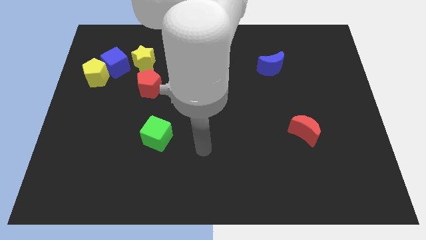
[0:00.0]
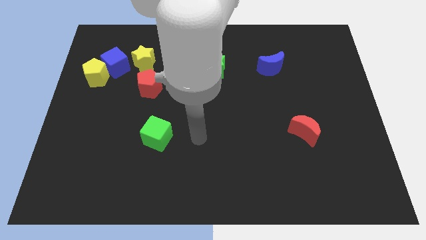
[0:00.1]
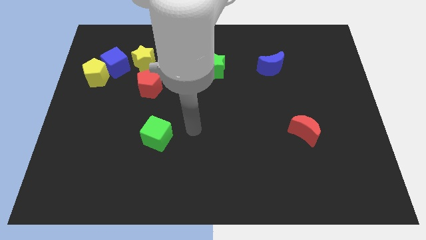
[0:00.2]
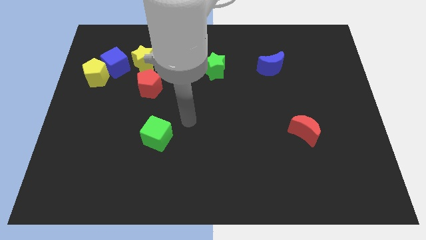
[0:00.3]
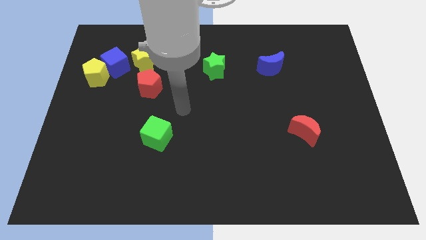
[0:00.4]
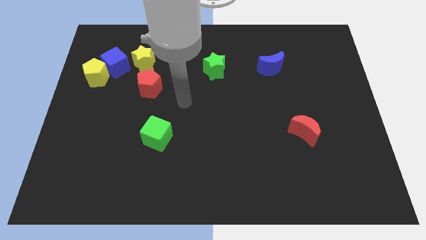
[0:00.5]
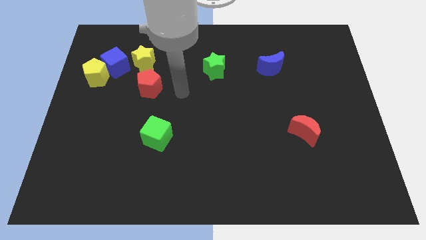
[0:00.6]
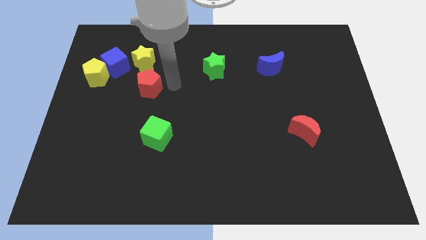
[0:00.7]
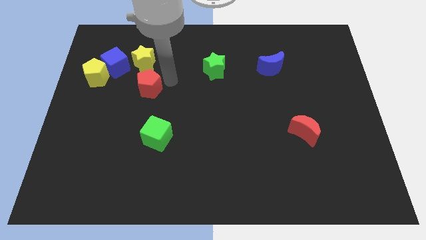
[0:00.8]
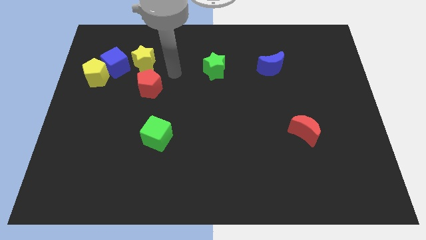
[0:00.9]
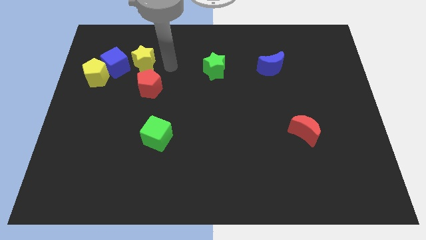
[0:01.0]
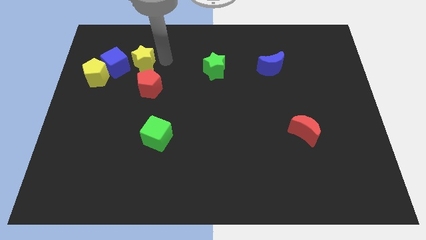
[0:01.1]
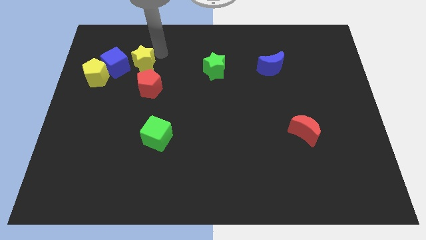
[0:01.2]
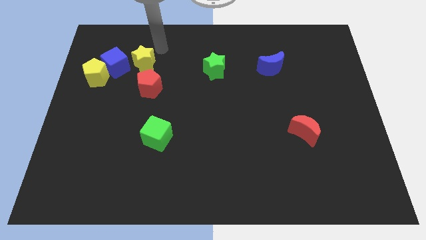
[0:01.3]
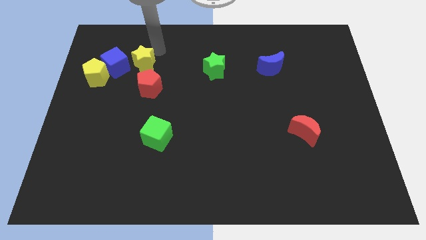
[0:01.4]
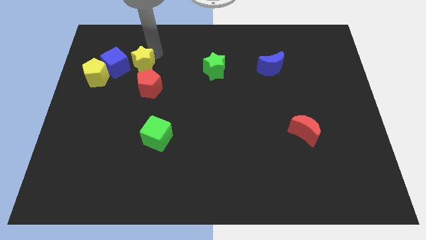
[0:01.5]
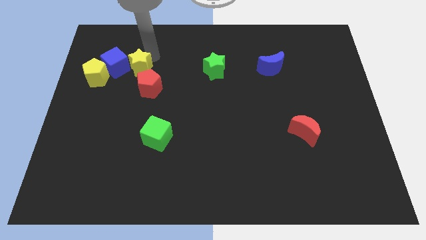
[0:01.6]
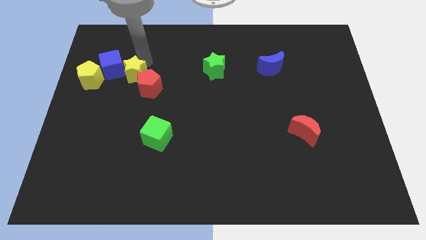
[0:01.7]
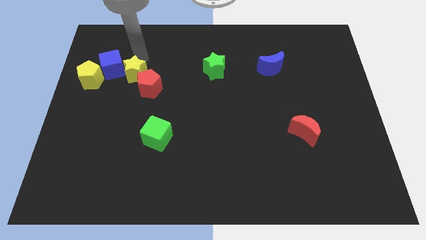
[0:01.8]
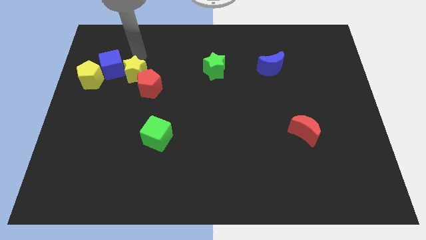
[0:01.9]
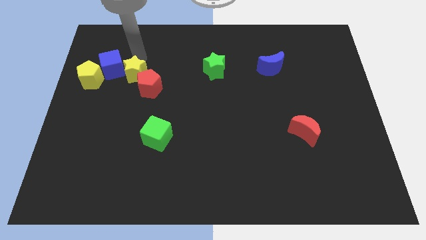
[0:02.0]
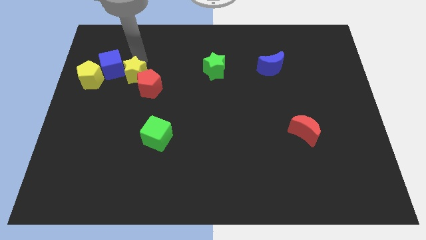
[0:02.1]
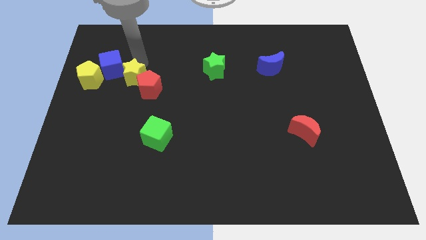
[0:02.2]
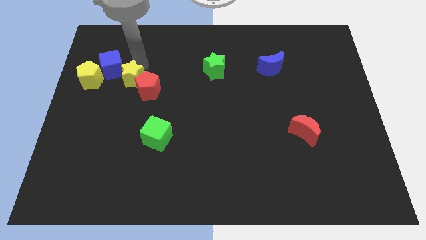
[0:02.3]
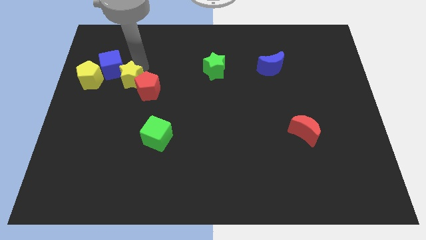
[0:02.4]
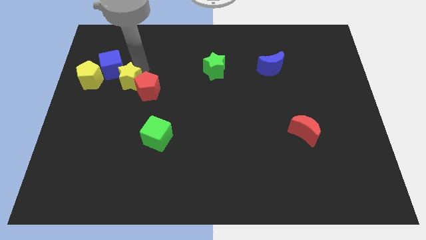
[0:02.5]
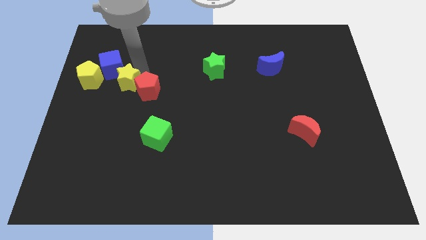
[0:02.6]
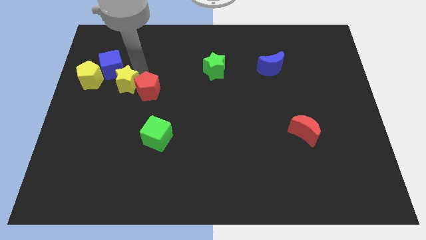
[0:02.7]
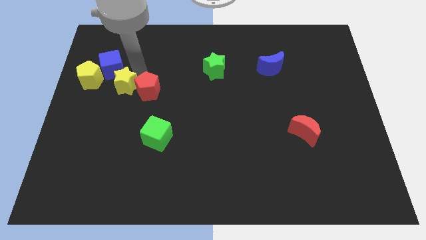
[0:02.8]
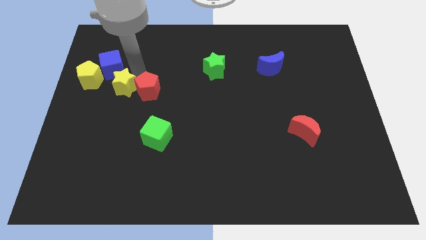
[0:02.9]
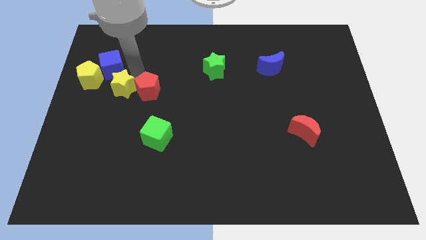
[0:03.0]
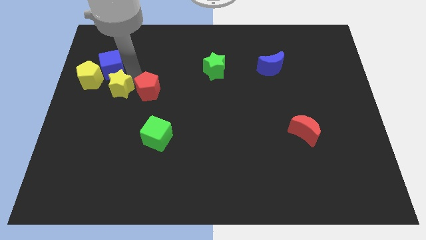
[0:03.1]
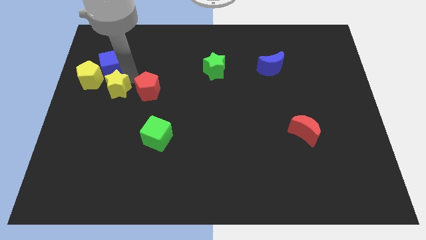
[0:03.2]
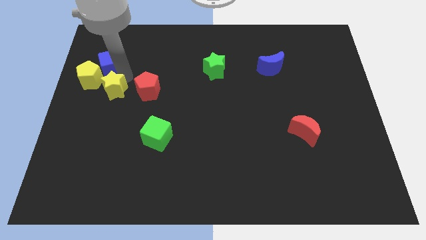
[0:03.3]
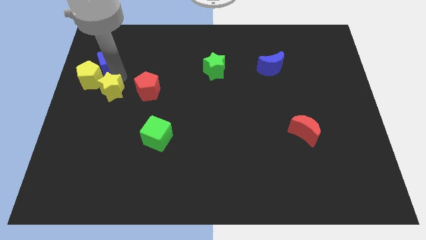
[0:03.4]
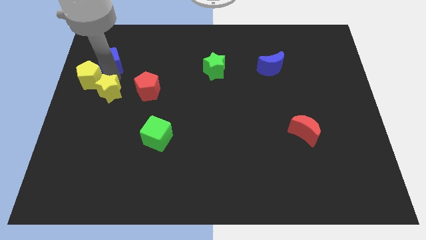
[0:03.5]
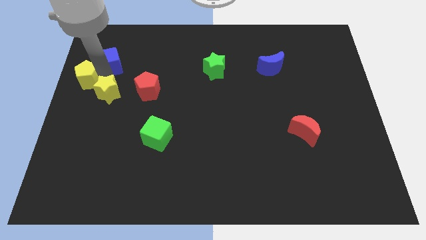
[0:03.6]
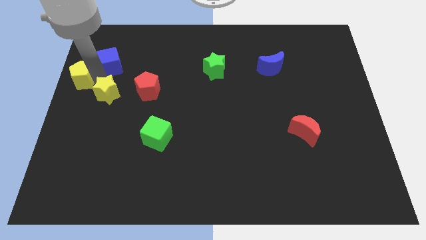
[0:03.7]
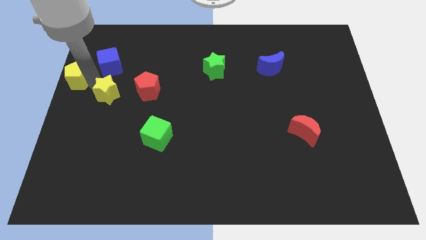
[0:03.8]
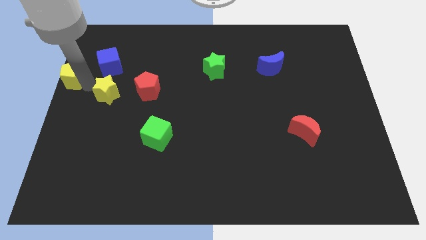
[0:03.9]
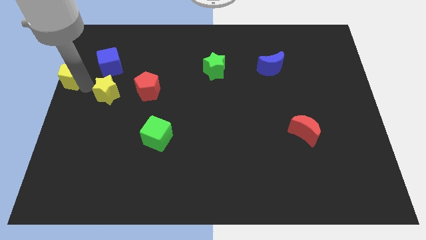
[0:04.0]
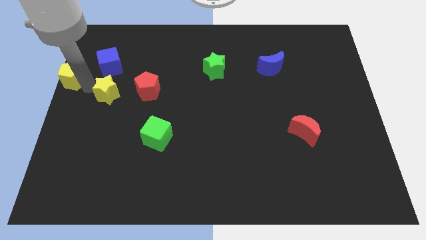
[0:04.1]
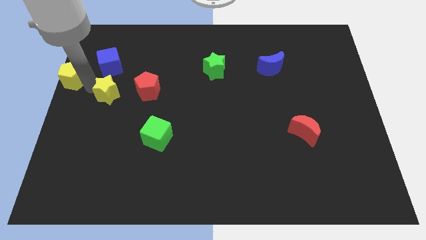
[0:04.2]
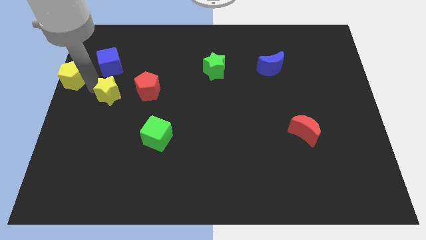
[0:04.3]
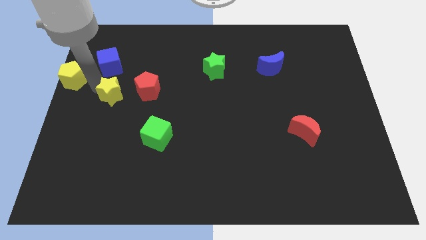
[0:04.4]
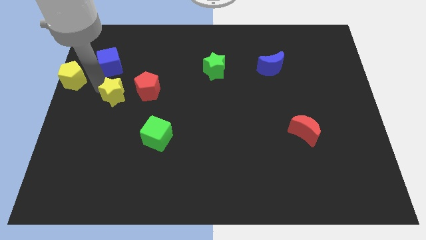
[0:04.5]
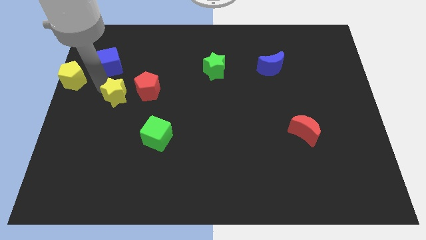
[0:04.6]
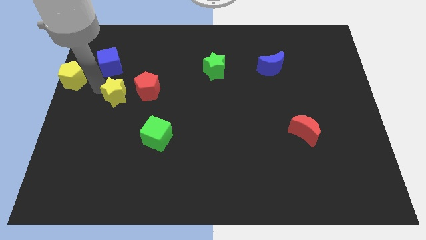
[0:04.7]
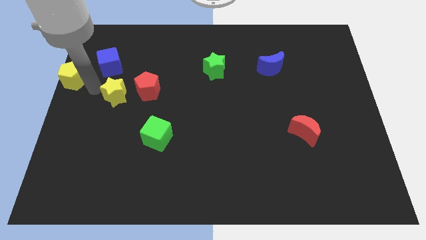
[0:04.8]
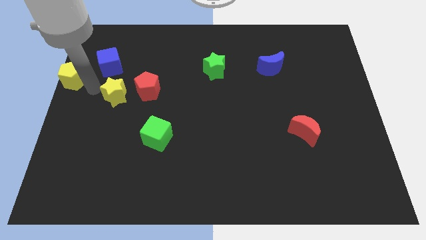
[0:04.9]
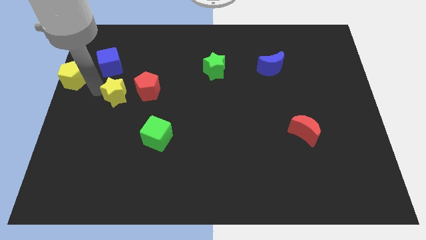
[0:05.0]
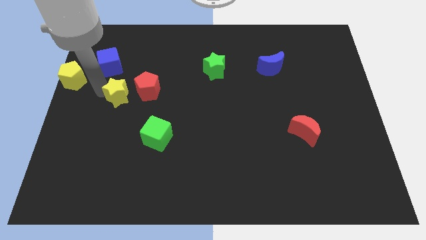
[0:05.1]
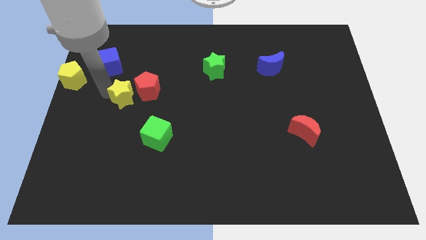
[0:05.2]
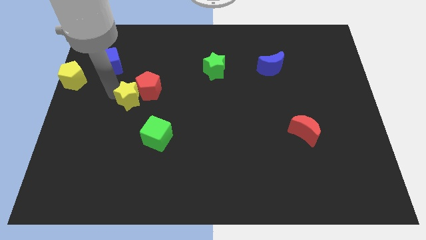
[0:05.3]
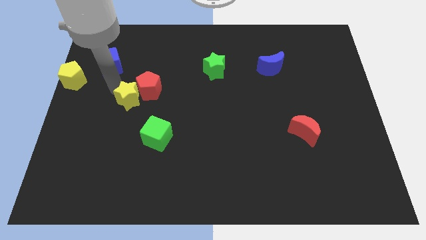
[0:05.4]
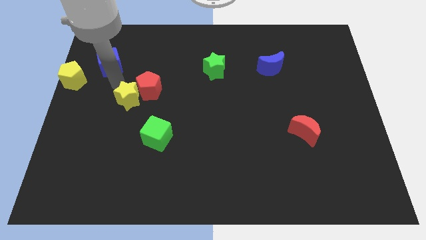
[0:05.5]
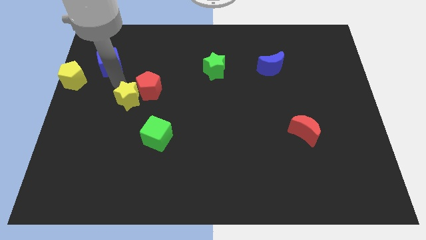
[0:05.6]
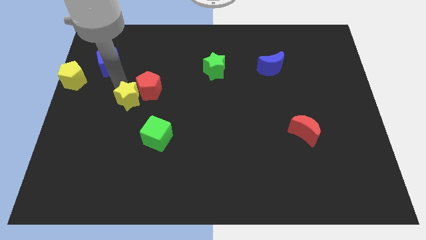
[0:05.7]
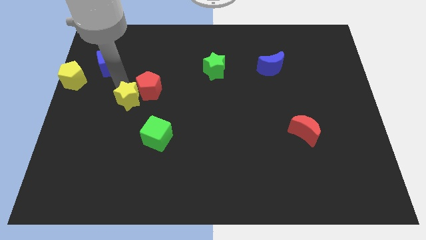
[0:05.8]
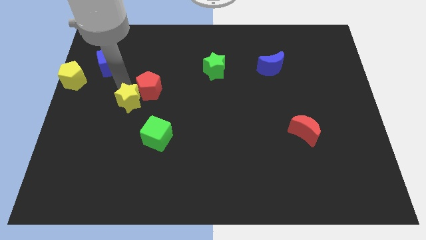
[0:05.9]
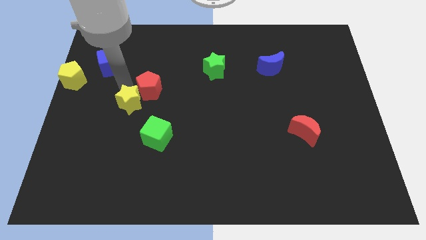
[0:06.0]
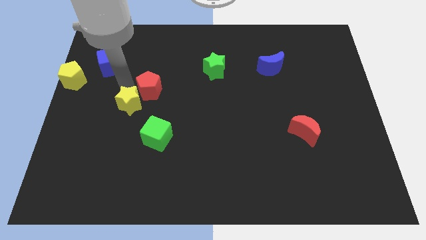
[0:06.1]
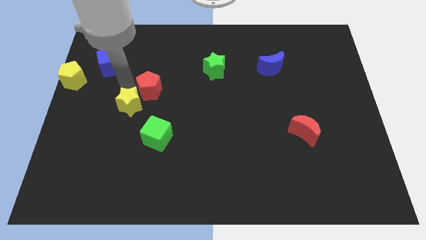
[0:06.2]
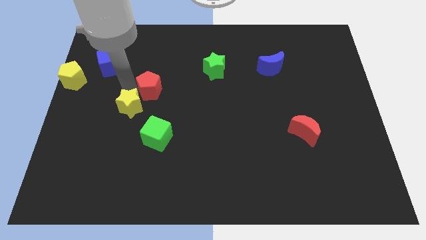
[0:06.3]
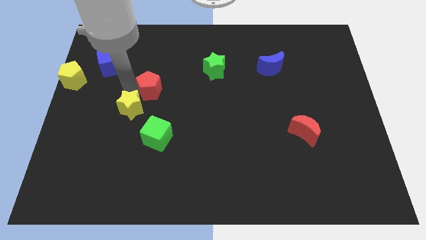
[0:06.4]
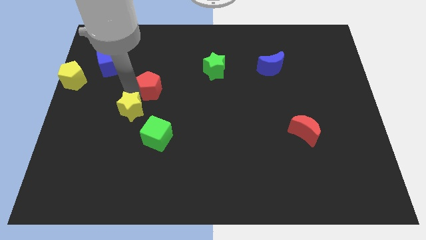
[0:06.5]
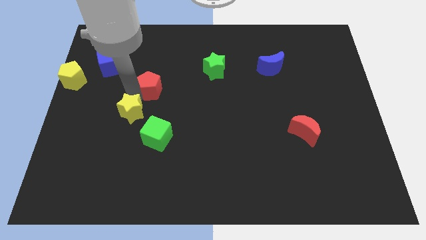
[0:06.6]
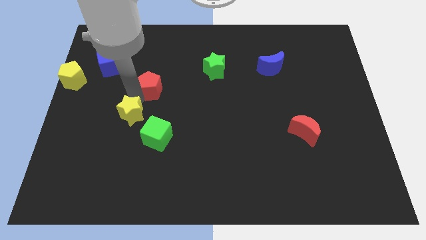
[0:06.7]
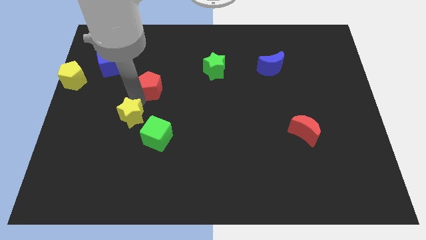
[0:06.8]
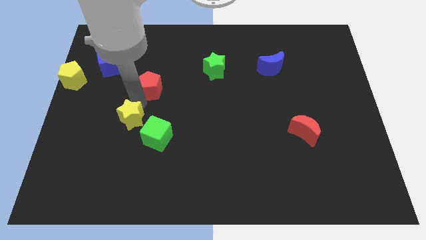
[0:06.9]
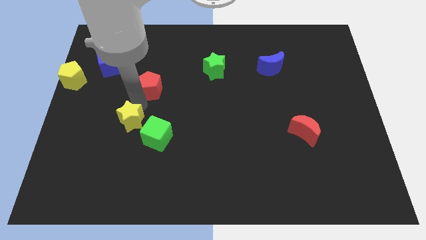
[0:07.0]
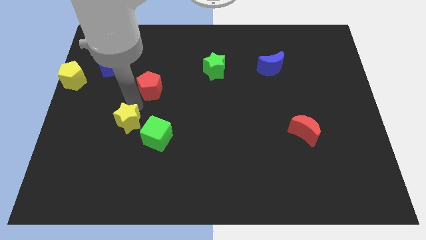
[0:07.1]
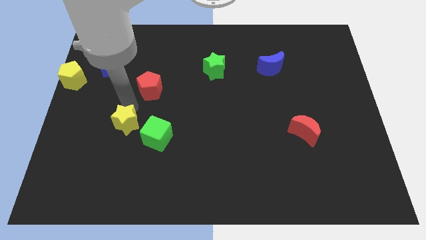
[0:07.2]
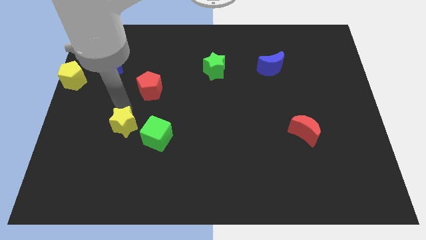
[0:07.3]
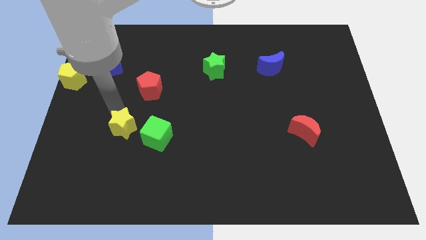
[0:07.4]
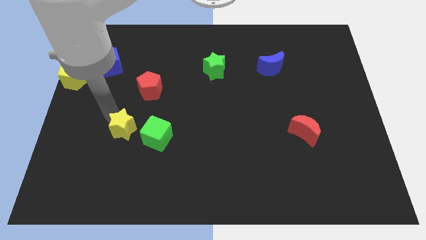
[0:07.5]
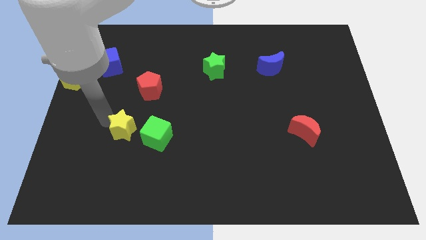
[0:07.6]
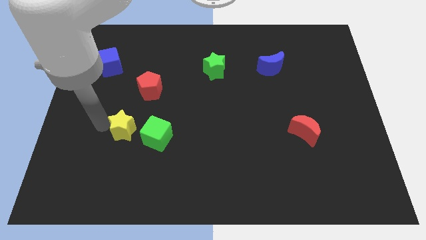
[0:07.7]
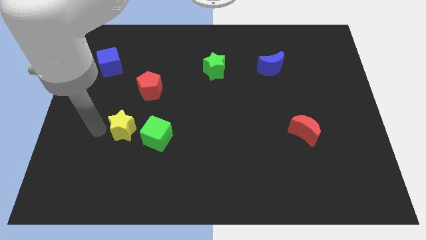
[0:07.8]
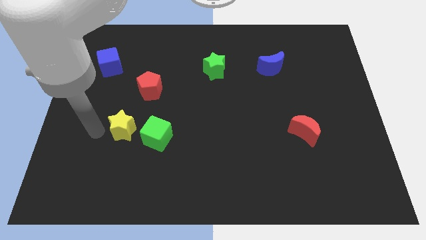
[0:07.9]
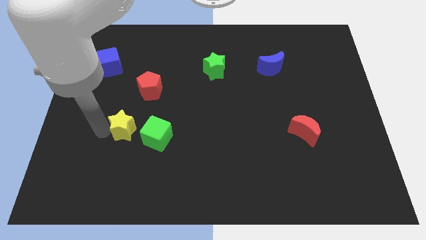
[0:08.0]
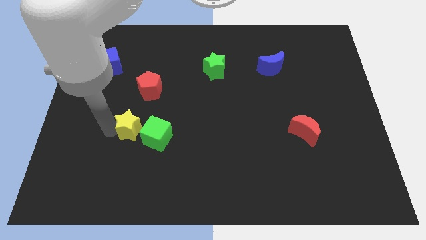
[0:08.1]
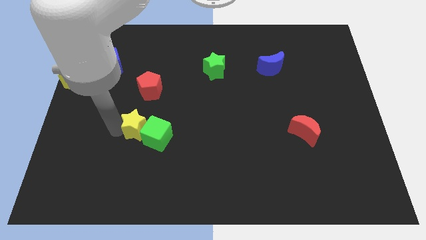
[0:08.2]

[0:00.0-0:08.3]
put the yellow star to the green cube
